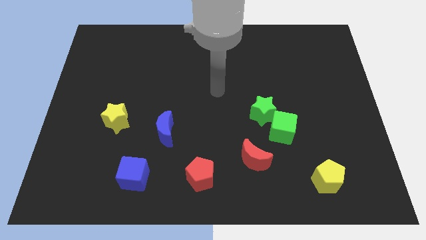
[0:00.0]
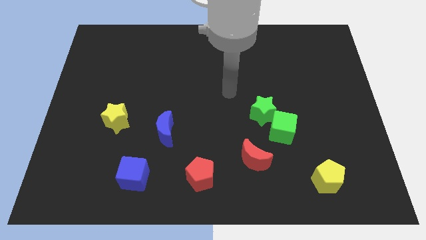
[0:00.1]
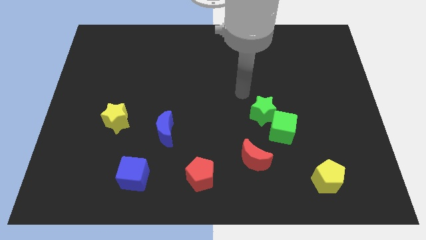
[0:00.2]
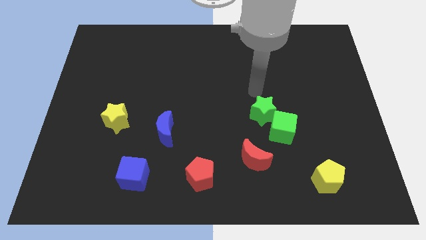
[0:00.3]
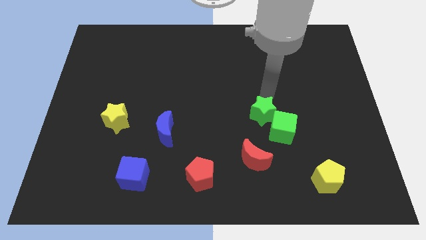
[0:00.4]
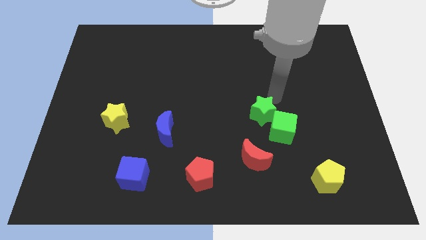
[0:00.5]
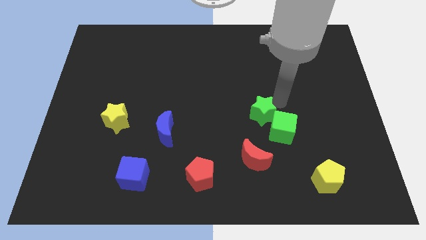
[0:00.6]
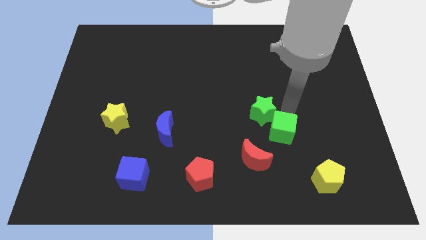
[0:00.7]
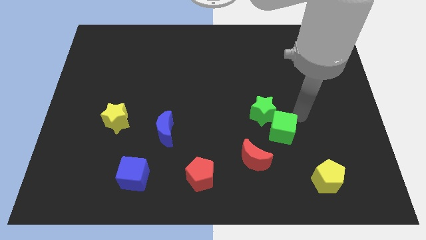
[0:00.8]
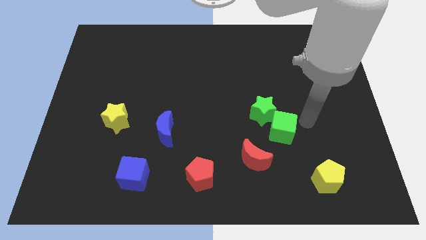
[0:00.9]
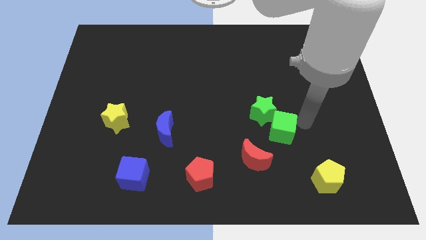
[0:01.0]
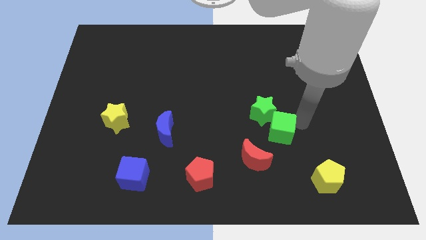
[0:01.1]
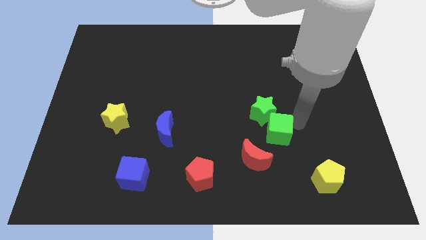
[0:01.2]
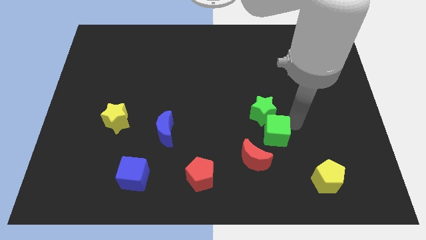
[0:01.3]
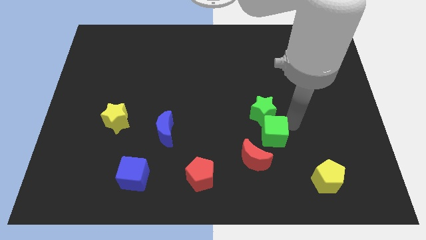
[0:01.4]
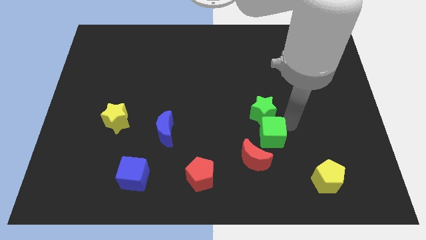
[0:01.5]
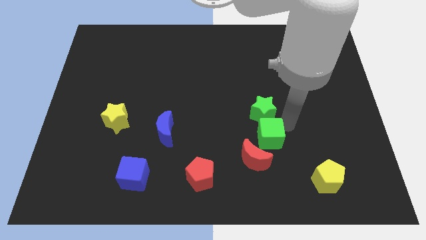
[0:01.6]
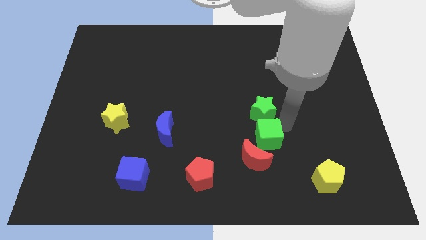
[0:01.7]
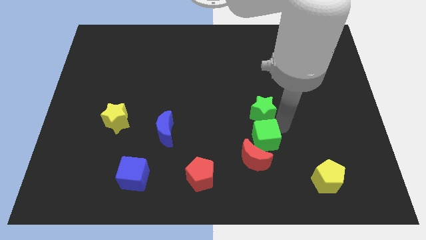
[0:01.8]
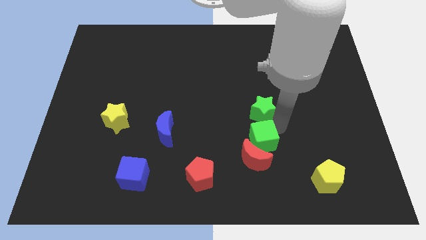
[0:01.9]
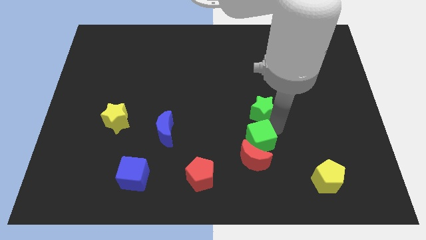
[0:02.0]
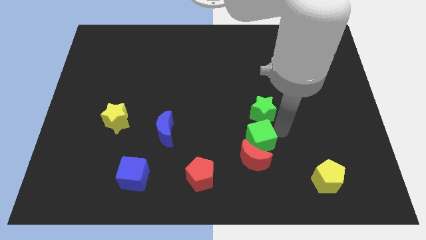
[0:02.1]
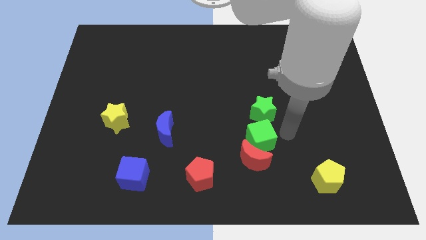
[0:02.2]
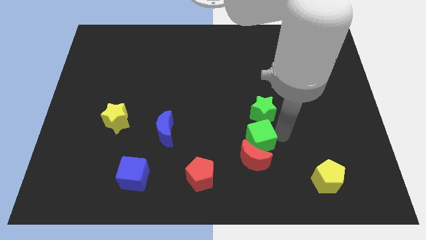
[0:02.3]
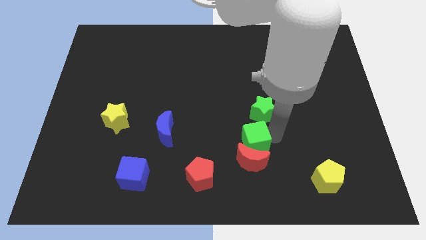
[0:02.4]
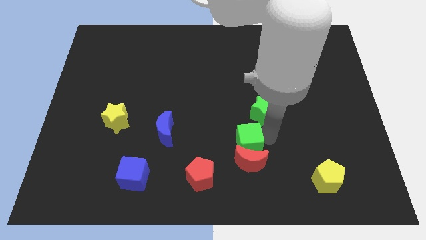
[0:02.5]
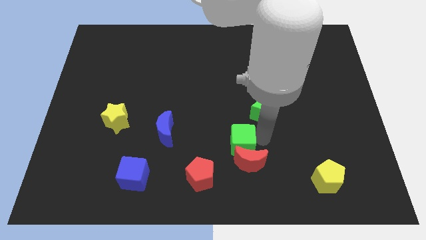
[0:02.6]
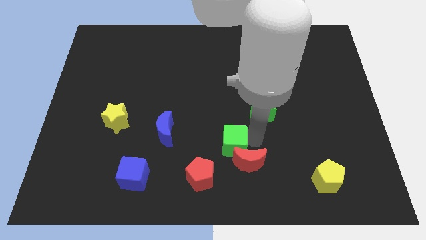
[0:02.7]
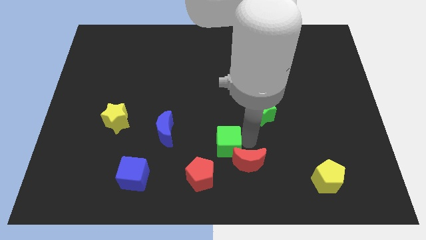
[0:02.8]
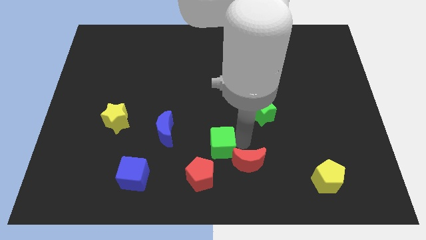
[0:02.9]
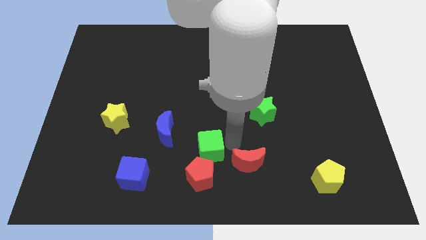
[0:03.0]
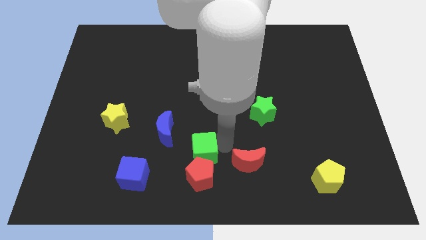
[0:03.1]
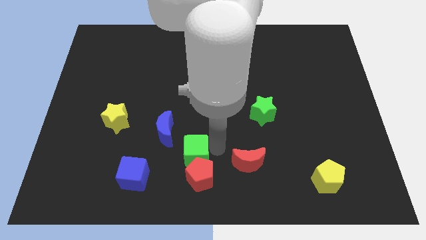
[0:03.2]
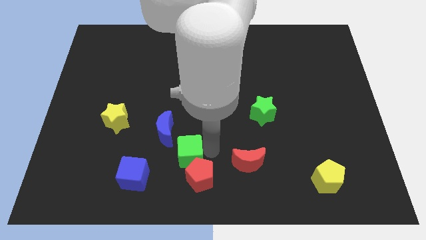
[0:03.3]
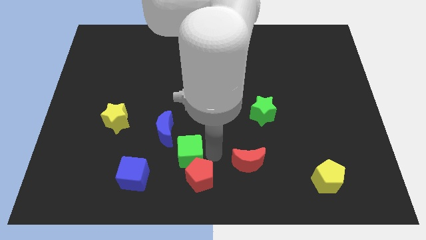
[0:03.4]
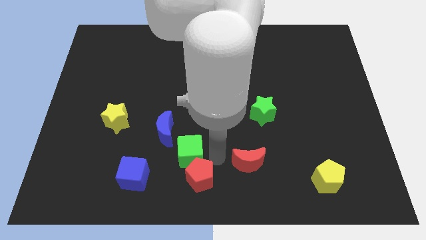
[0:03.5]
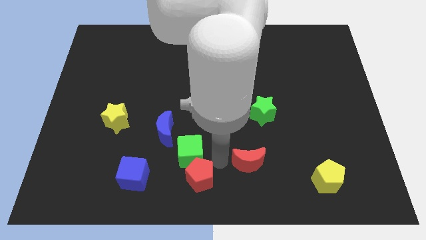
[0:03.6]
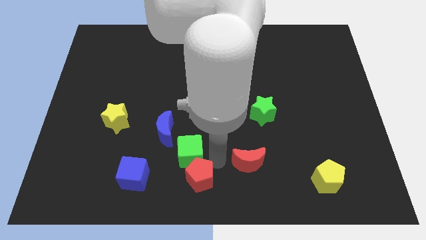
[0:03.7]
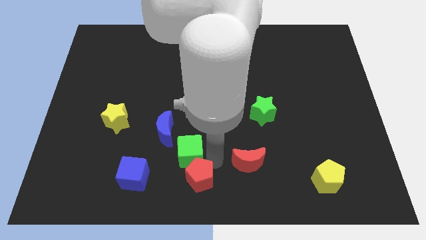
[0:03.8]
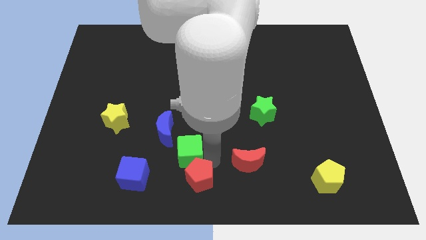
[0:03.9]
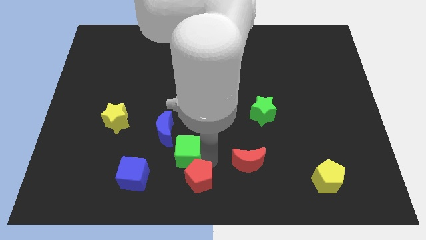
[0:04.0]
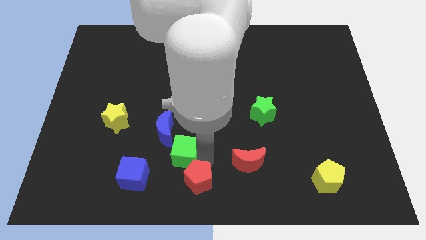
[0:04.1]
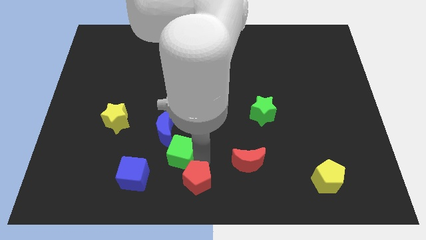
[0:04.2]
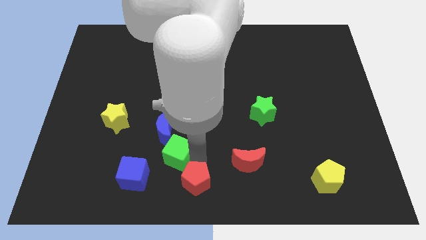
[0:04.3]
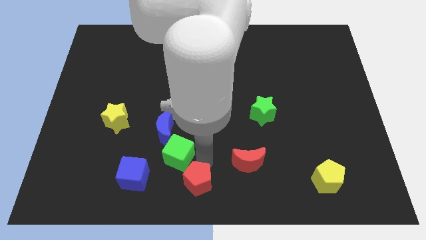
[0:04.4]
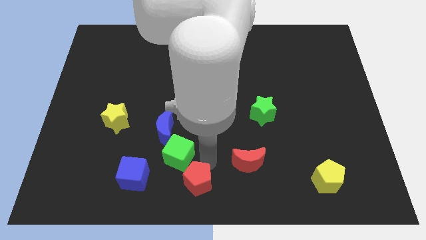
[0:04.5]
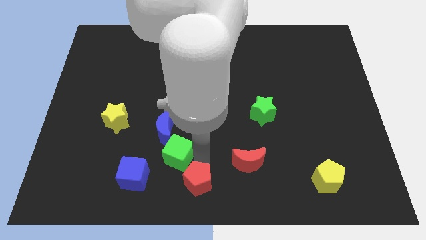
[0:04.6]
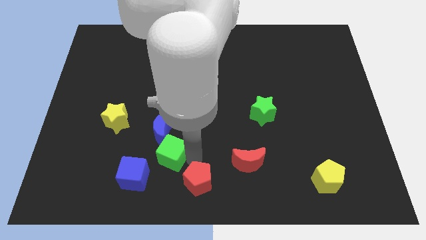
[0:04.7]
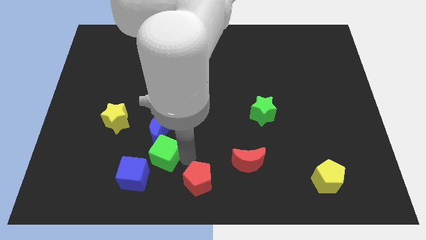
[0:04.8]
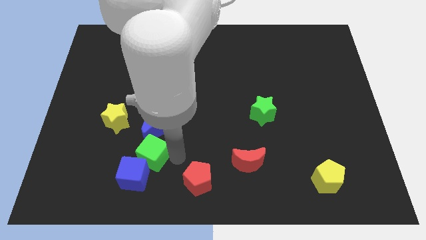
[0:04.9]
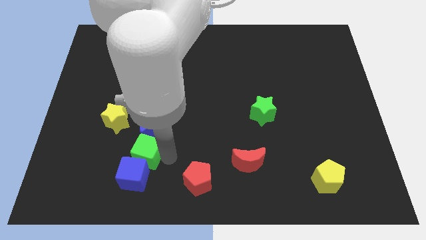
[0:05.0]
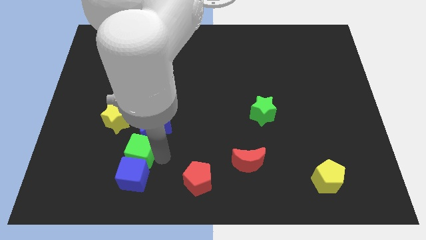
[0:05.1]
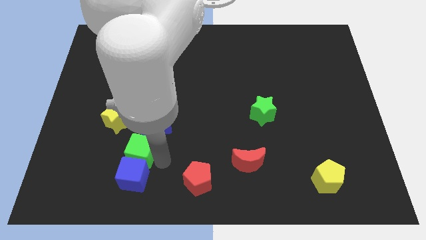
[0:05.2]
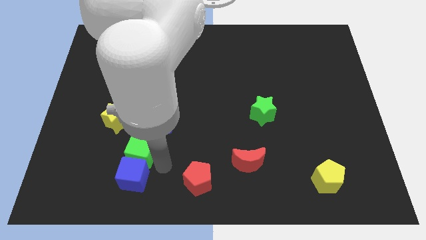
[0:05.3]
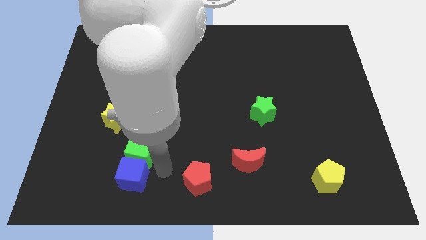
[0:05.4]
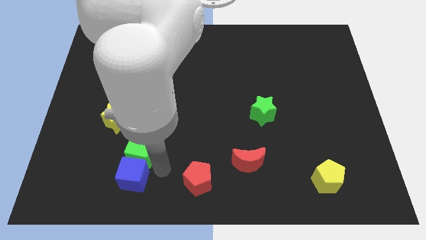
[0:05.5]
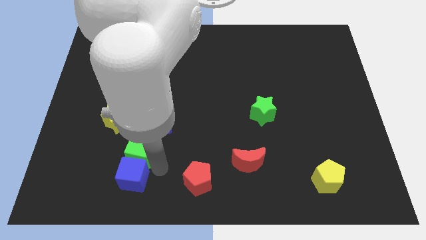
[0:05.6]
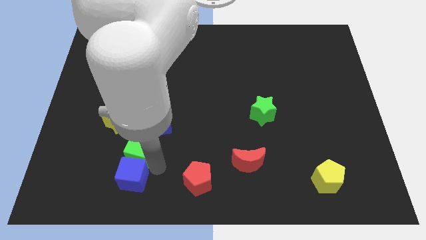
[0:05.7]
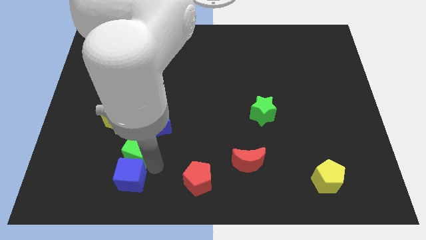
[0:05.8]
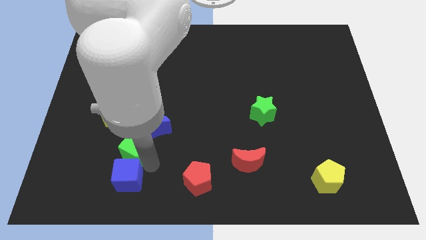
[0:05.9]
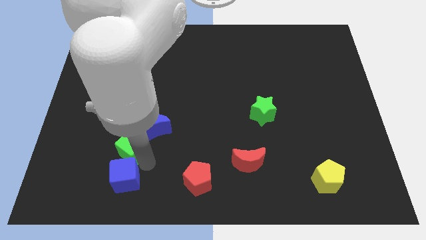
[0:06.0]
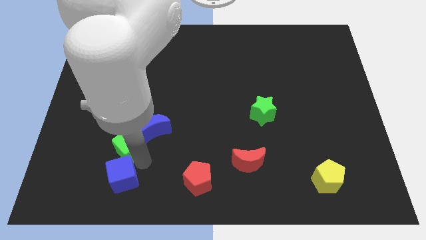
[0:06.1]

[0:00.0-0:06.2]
slide the green cube left of the blue moon

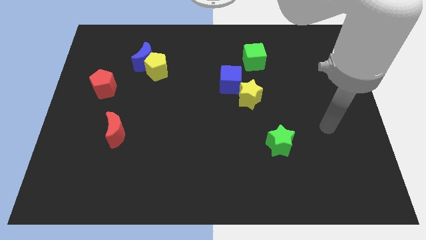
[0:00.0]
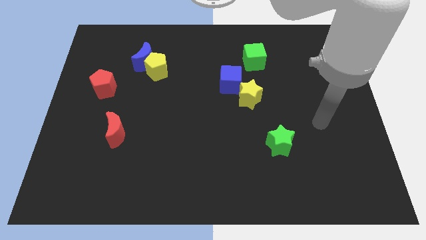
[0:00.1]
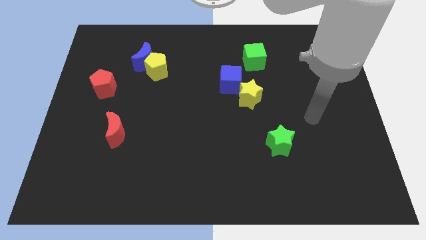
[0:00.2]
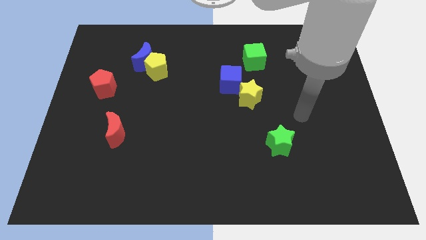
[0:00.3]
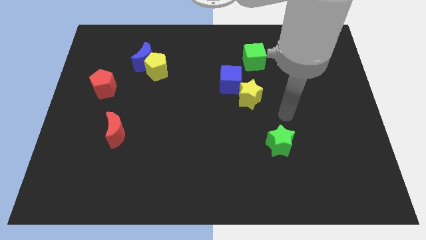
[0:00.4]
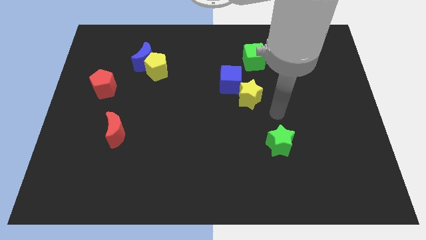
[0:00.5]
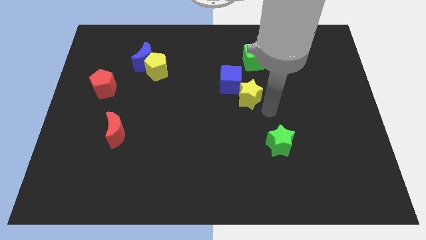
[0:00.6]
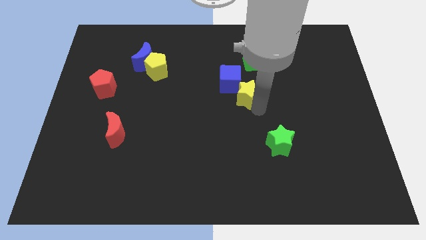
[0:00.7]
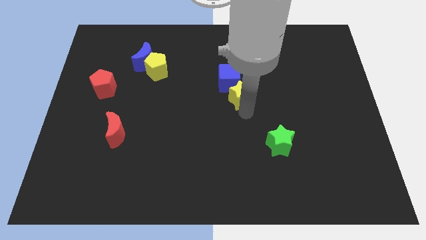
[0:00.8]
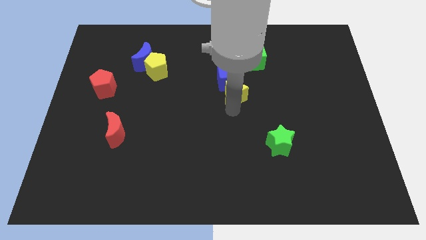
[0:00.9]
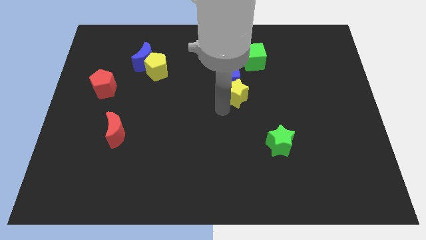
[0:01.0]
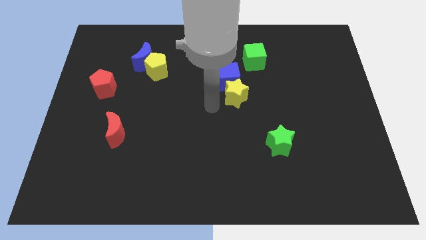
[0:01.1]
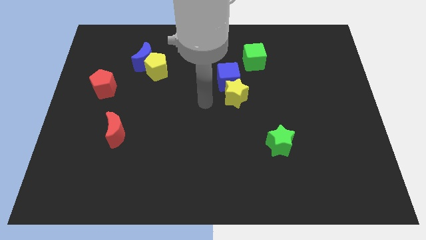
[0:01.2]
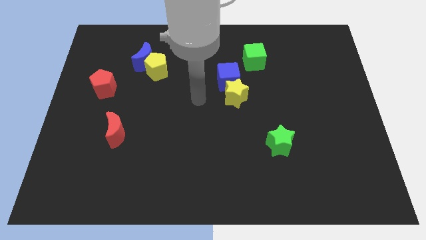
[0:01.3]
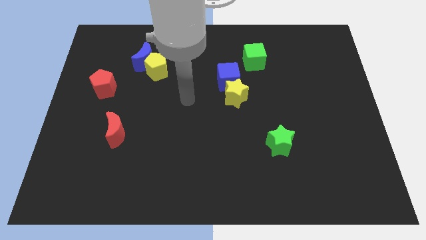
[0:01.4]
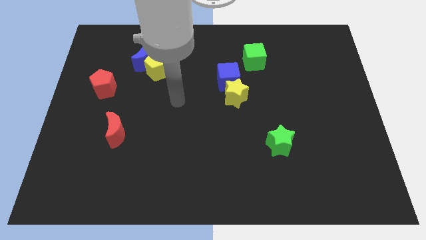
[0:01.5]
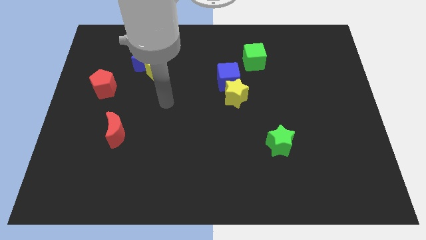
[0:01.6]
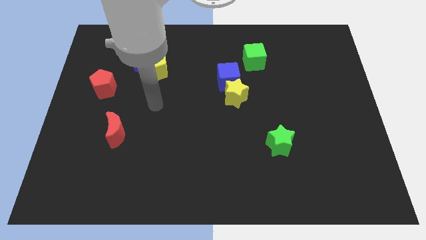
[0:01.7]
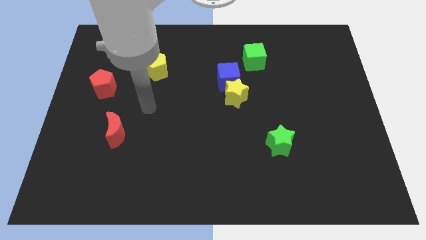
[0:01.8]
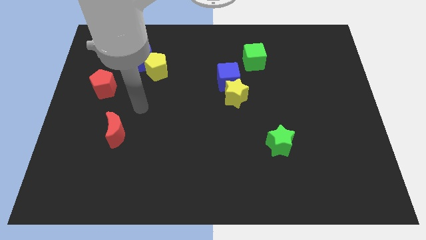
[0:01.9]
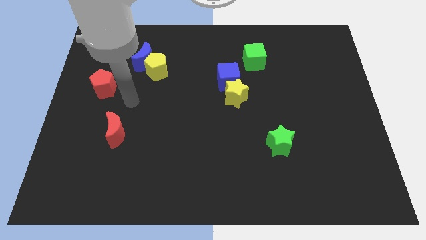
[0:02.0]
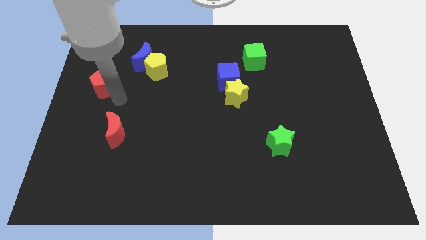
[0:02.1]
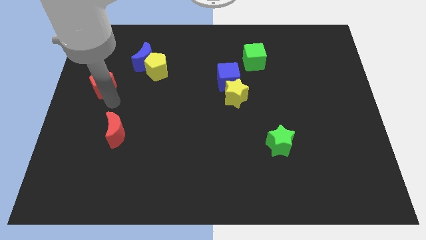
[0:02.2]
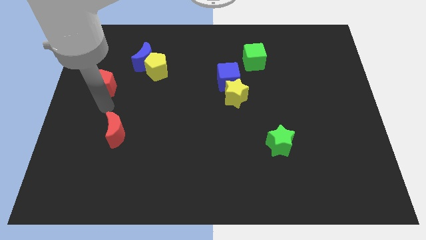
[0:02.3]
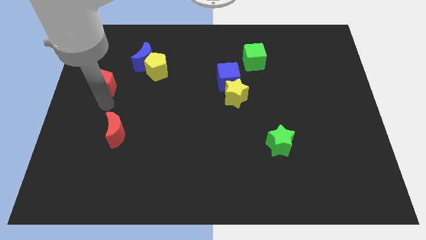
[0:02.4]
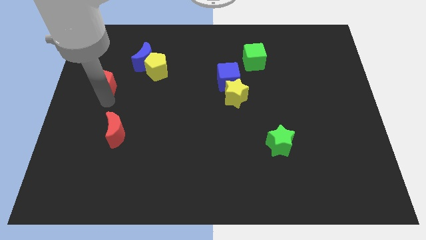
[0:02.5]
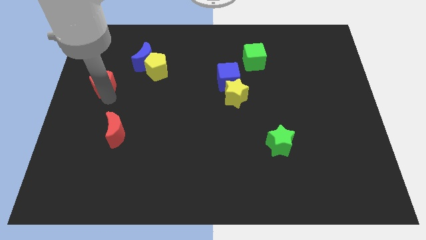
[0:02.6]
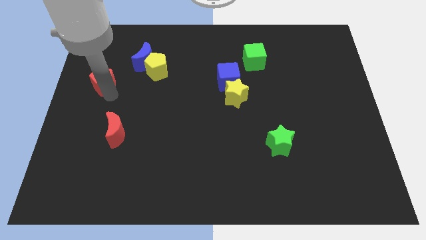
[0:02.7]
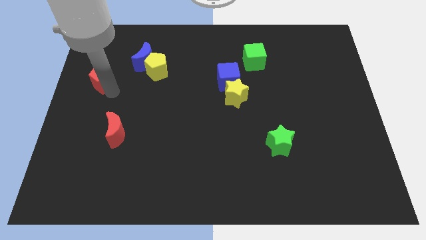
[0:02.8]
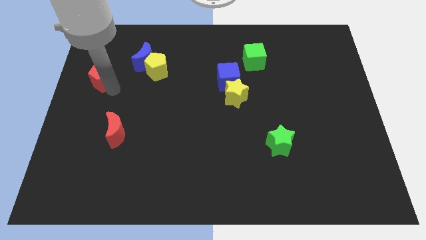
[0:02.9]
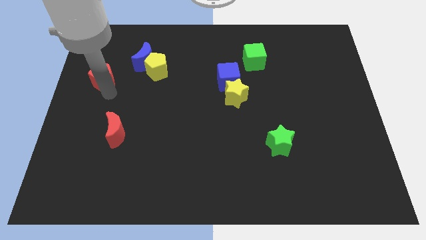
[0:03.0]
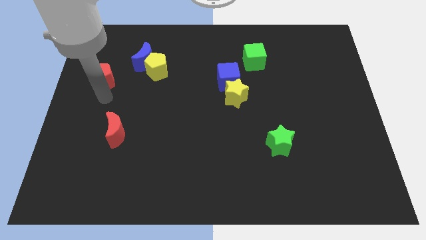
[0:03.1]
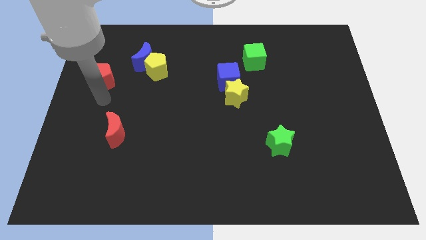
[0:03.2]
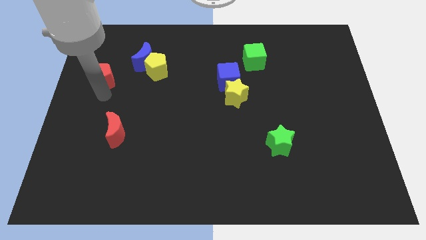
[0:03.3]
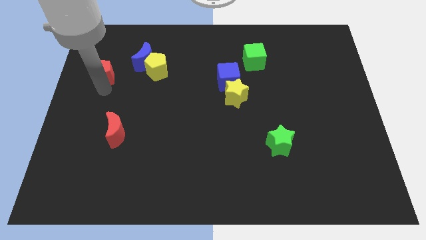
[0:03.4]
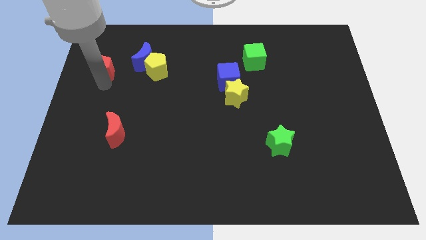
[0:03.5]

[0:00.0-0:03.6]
move the red pentagon just left of the blue moon
